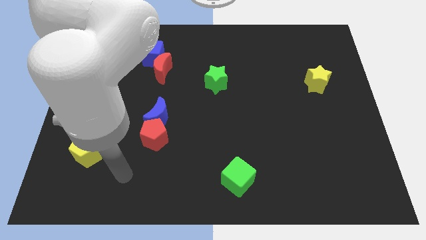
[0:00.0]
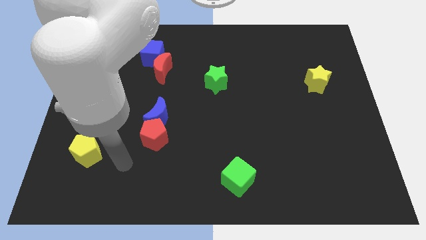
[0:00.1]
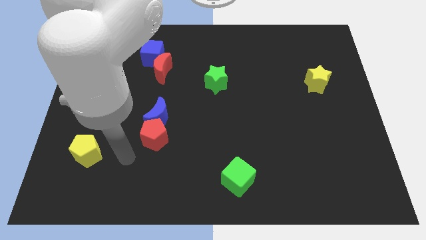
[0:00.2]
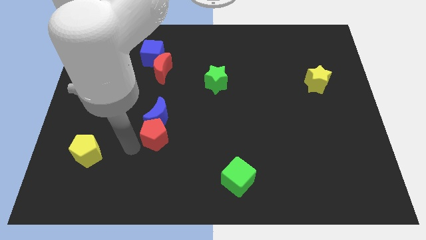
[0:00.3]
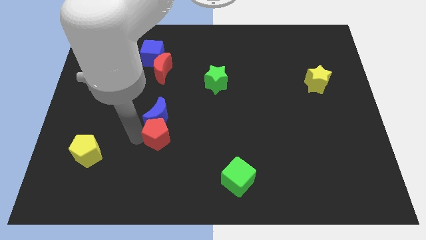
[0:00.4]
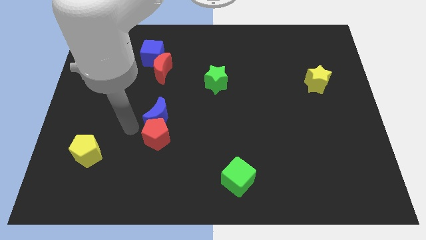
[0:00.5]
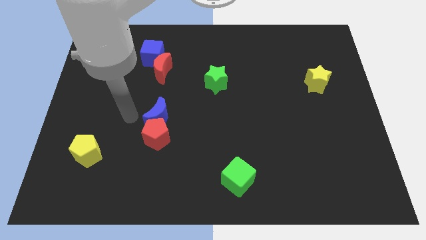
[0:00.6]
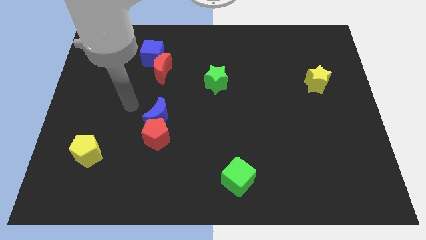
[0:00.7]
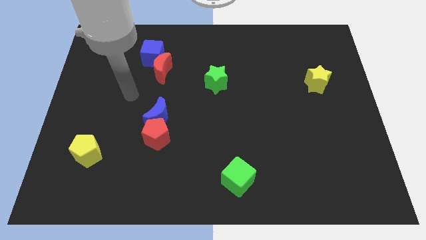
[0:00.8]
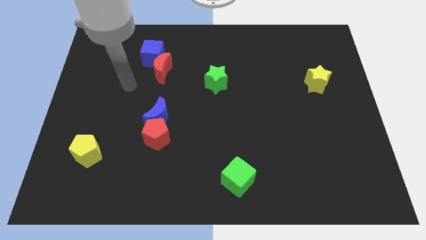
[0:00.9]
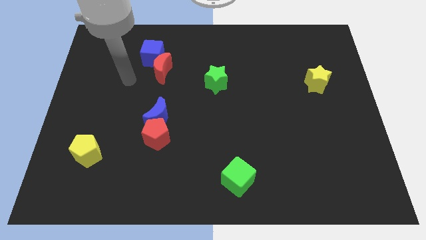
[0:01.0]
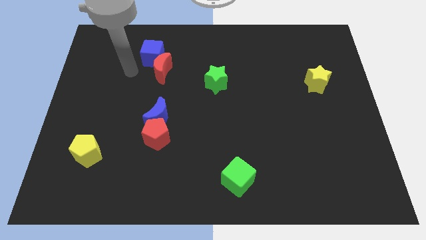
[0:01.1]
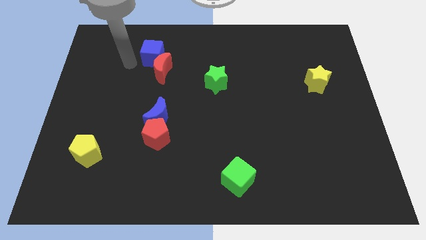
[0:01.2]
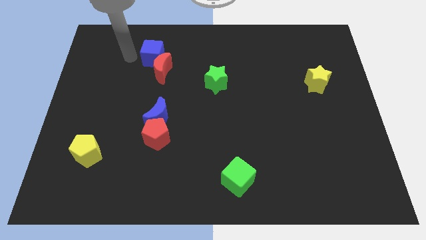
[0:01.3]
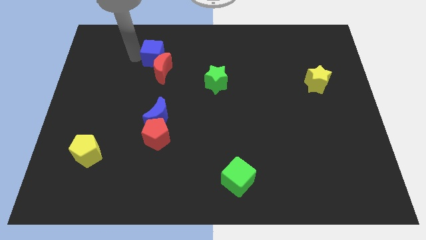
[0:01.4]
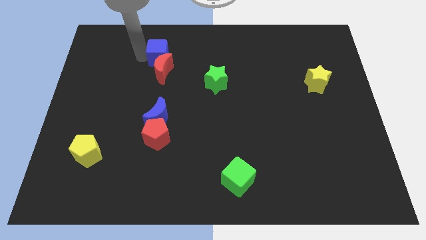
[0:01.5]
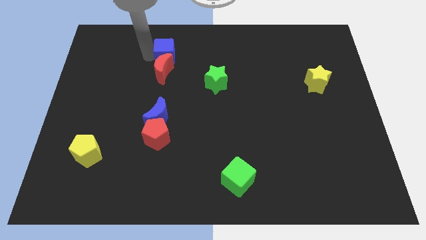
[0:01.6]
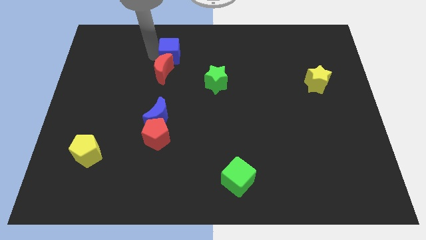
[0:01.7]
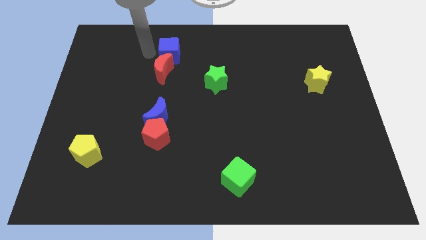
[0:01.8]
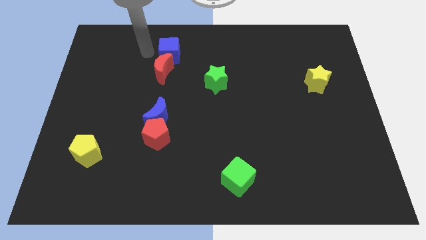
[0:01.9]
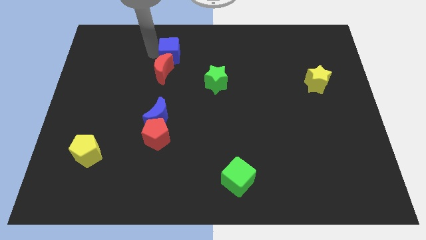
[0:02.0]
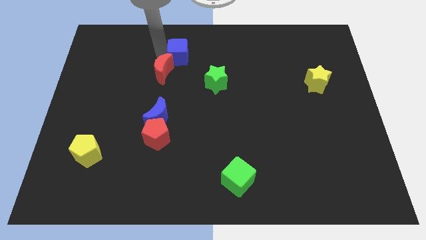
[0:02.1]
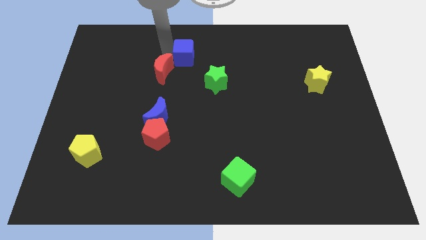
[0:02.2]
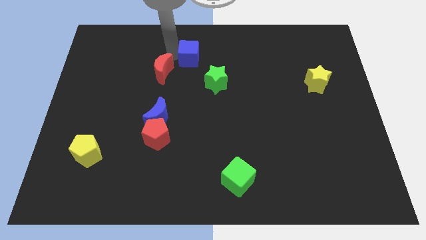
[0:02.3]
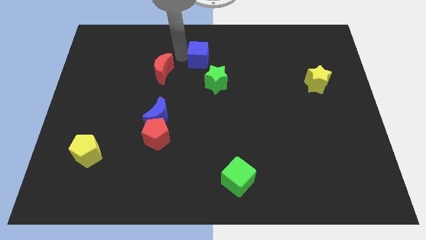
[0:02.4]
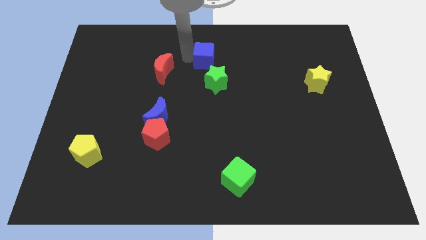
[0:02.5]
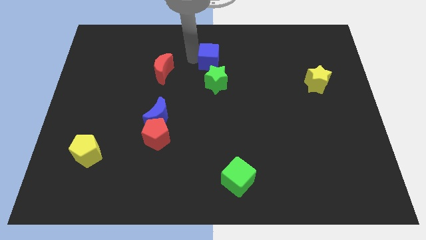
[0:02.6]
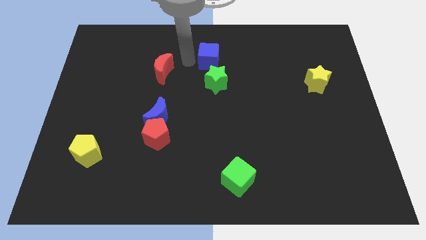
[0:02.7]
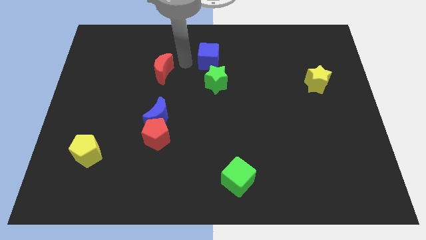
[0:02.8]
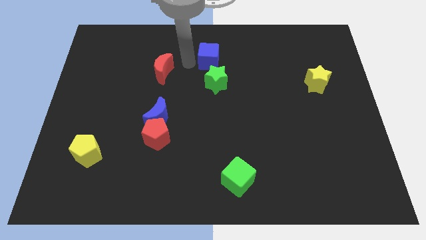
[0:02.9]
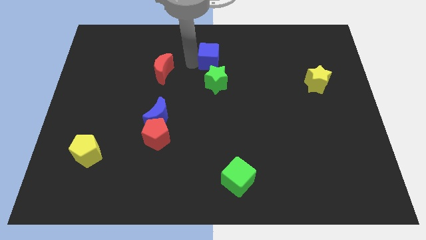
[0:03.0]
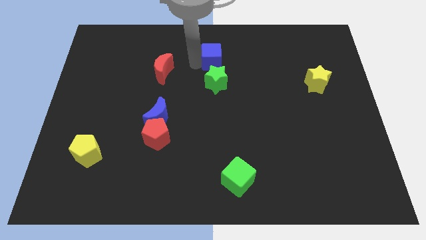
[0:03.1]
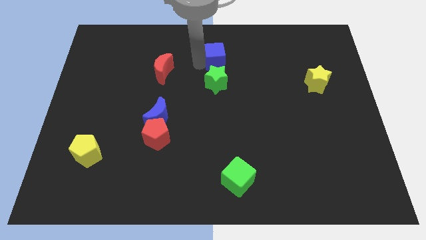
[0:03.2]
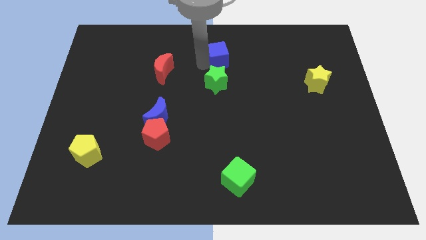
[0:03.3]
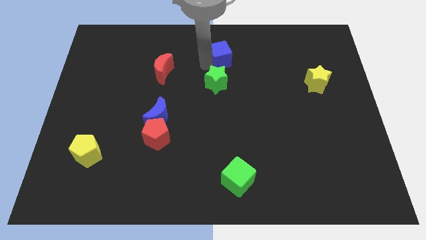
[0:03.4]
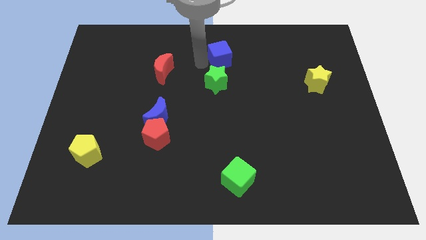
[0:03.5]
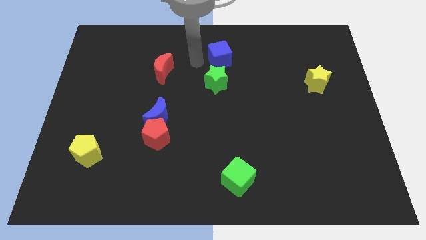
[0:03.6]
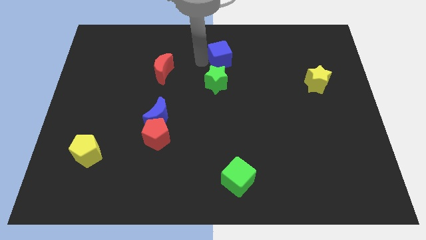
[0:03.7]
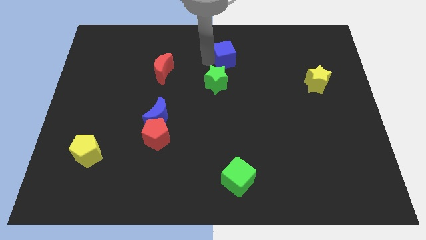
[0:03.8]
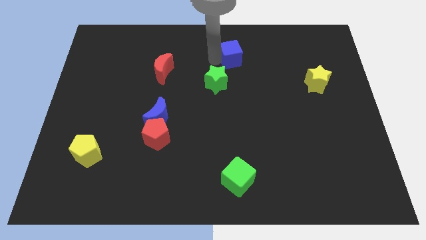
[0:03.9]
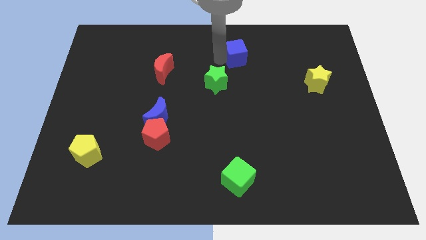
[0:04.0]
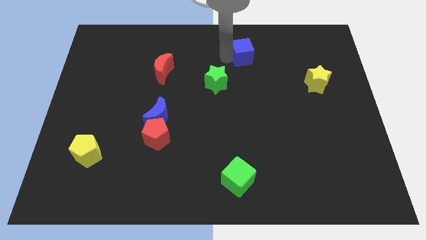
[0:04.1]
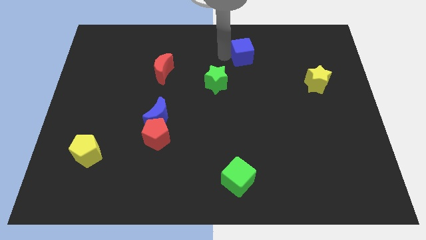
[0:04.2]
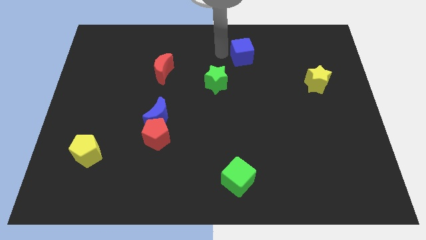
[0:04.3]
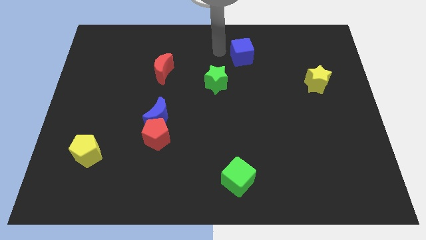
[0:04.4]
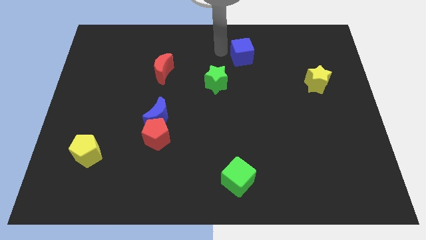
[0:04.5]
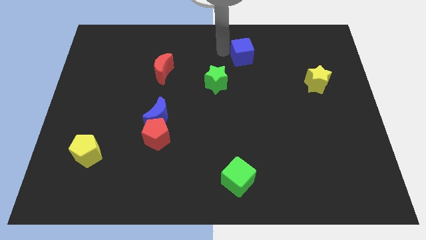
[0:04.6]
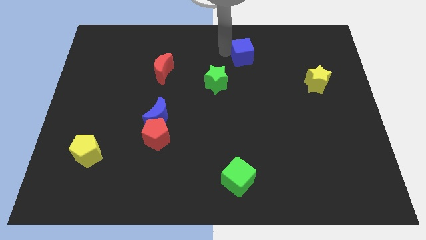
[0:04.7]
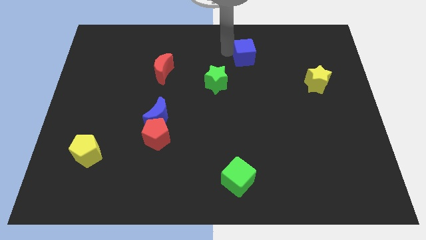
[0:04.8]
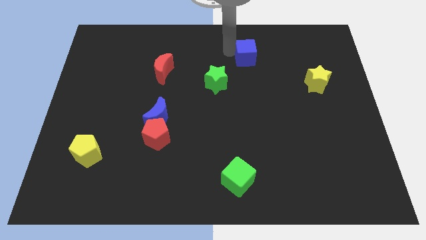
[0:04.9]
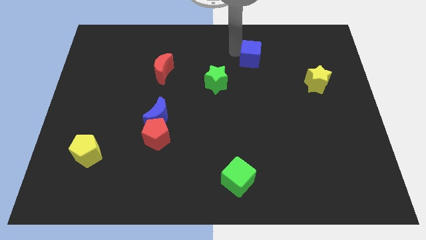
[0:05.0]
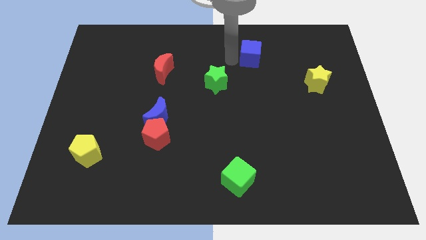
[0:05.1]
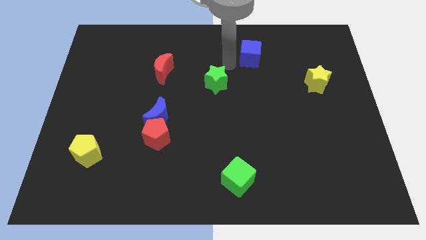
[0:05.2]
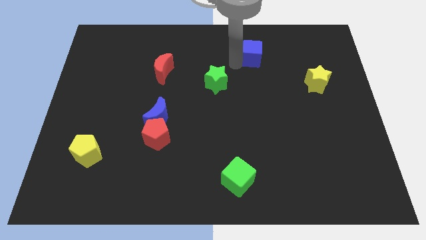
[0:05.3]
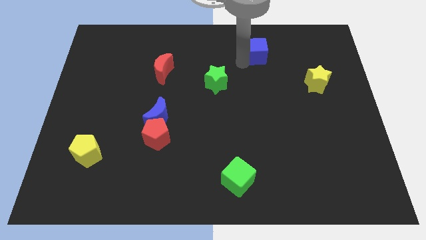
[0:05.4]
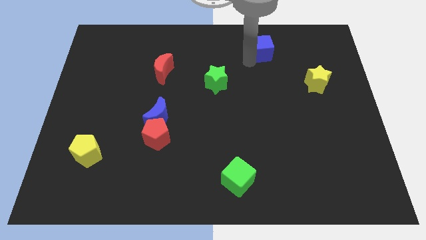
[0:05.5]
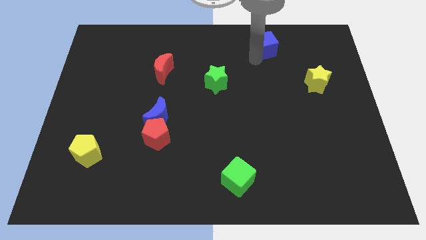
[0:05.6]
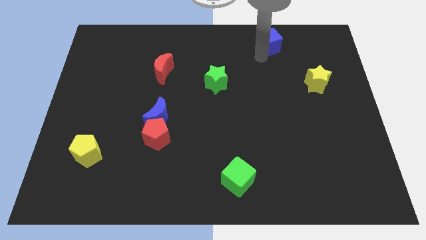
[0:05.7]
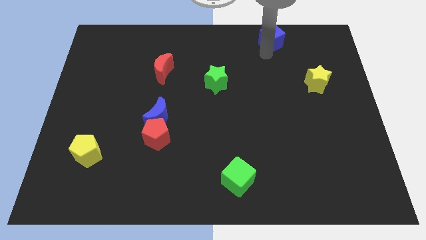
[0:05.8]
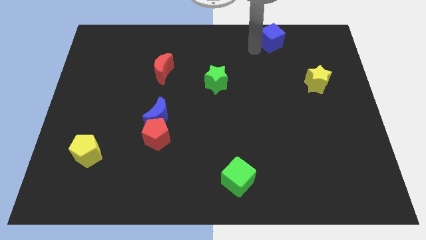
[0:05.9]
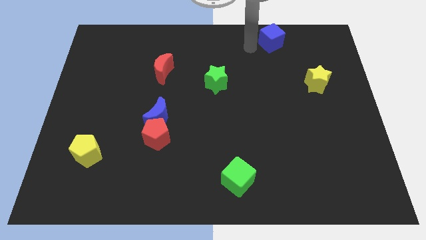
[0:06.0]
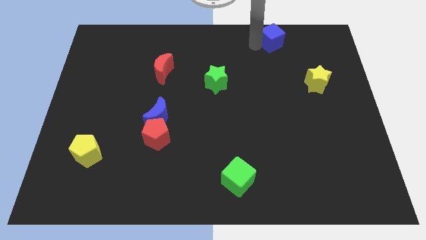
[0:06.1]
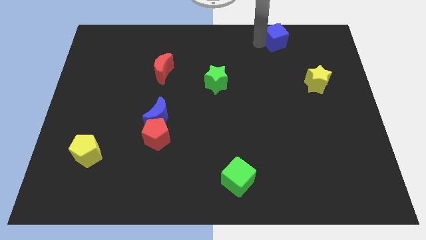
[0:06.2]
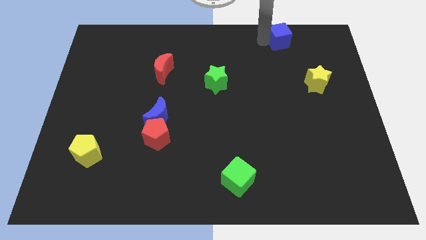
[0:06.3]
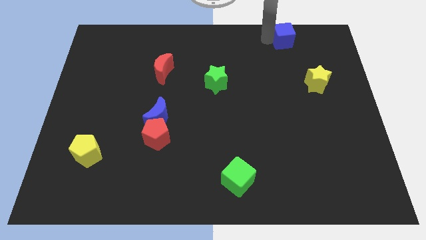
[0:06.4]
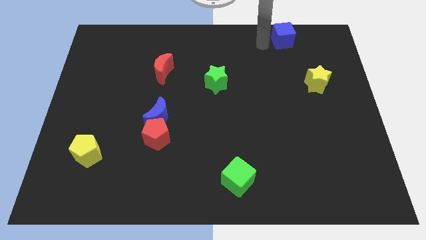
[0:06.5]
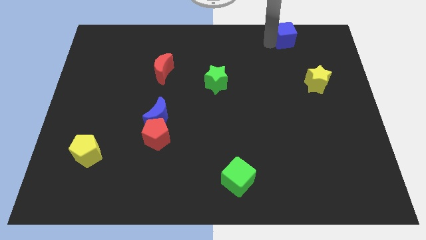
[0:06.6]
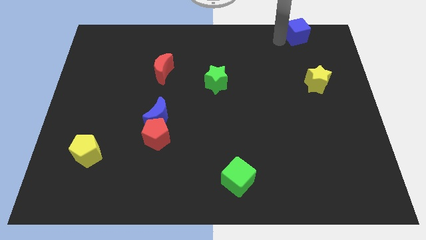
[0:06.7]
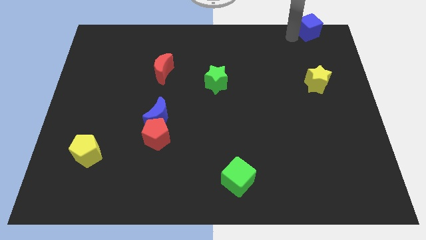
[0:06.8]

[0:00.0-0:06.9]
move the blue cube to the top right of the board
